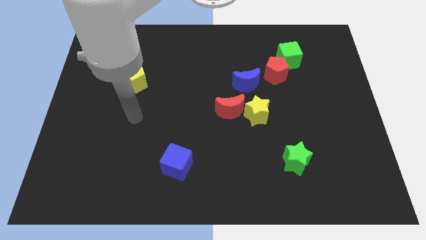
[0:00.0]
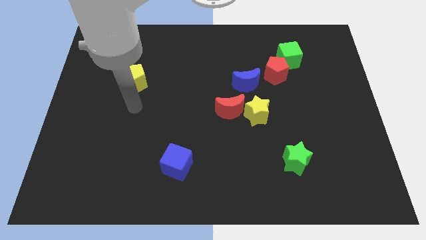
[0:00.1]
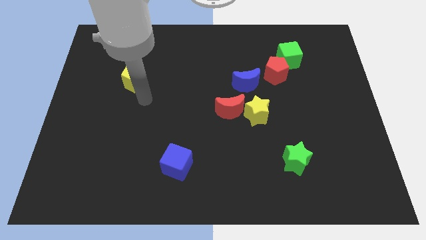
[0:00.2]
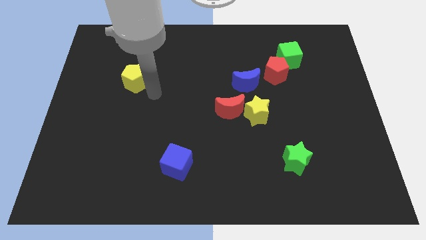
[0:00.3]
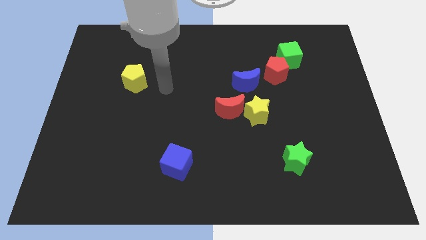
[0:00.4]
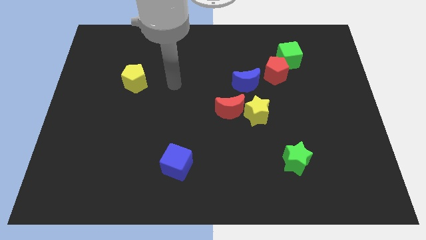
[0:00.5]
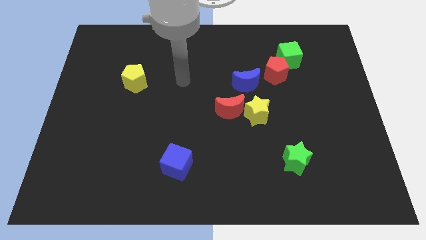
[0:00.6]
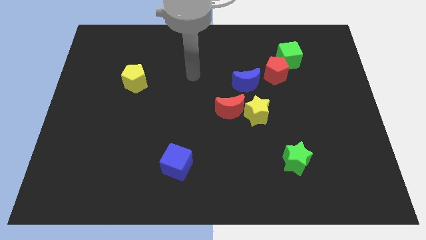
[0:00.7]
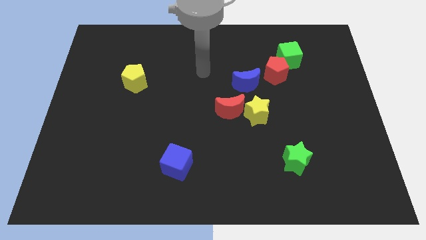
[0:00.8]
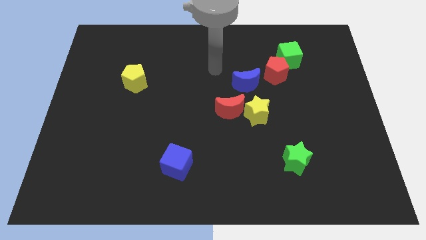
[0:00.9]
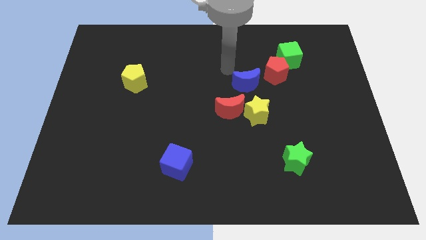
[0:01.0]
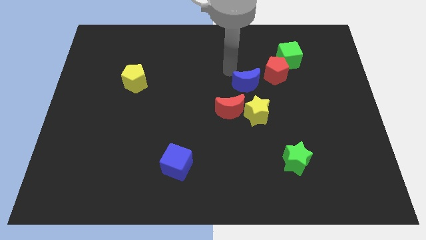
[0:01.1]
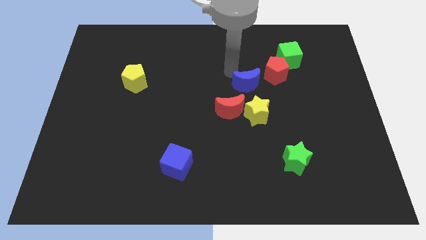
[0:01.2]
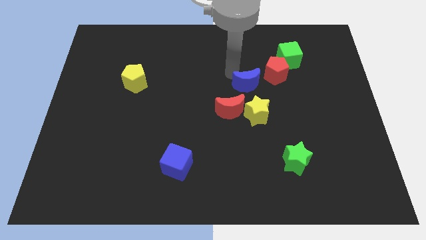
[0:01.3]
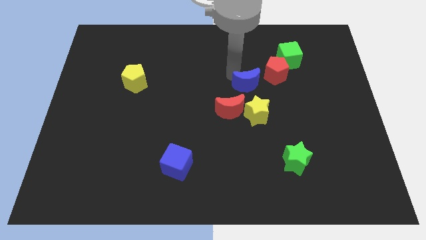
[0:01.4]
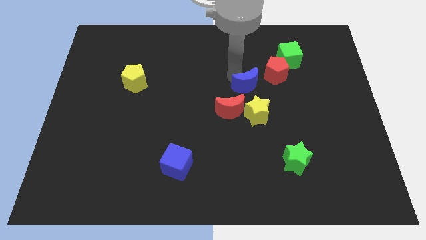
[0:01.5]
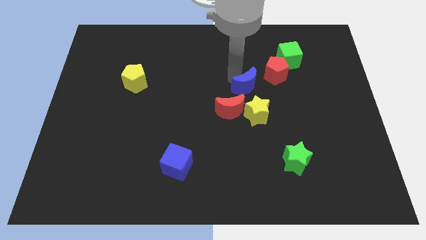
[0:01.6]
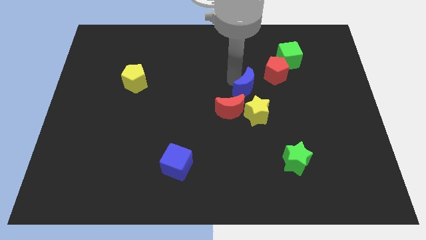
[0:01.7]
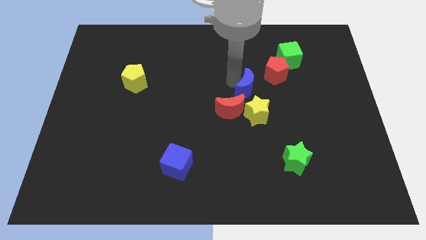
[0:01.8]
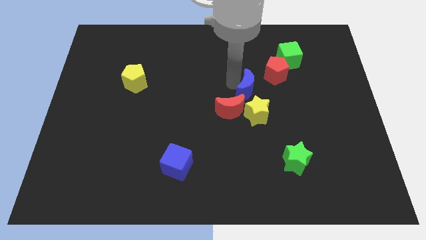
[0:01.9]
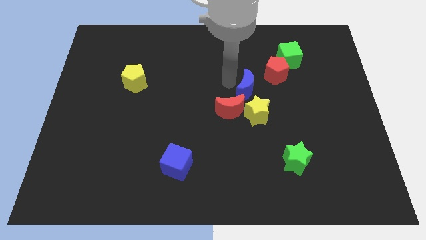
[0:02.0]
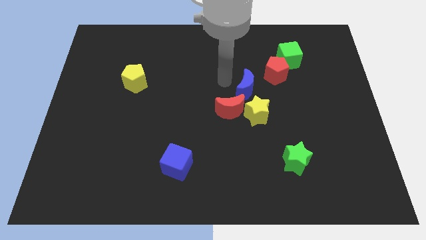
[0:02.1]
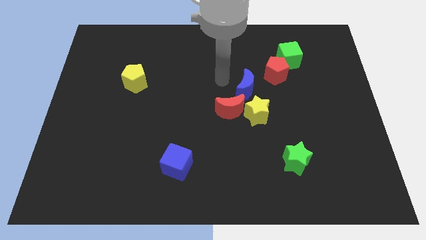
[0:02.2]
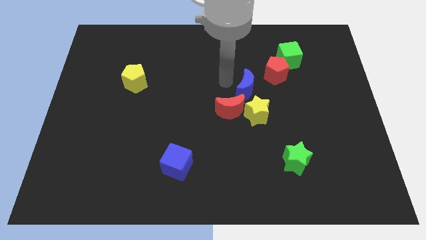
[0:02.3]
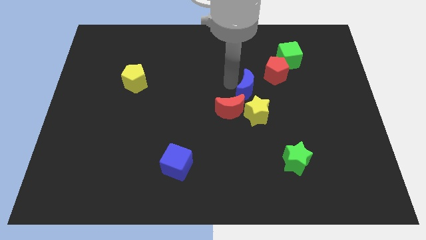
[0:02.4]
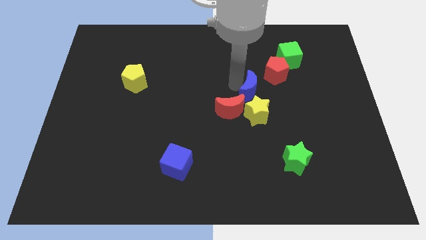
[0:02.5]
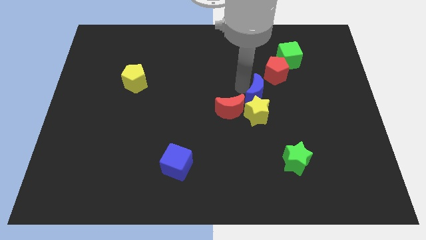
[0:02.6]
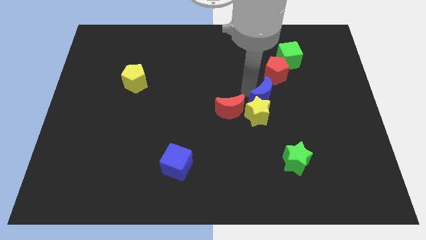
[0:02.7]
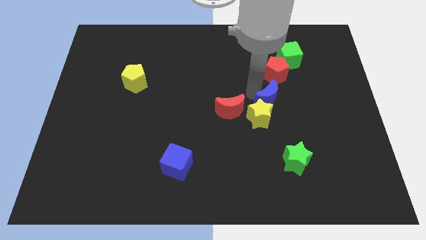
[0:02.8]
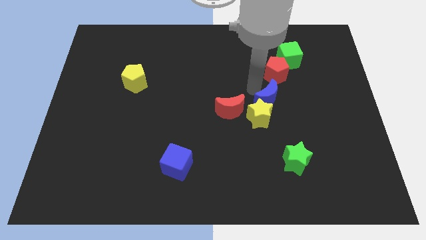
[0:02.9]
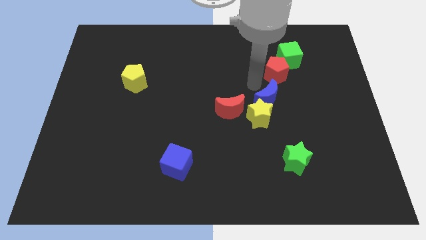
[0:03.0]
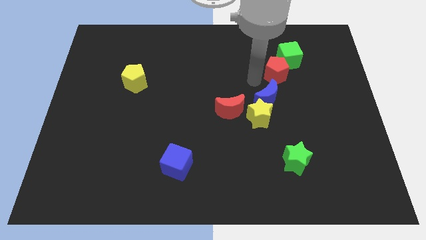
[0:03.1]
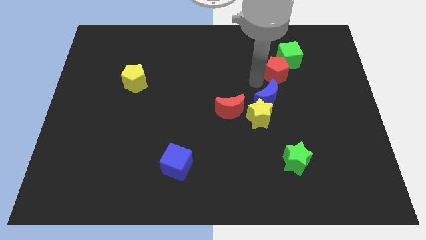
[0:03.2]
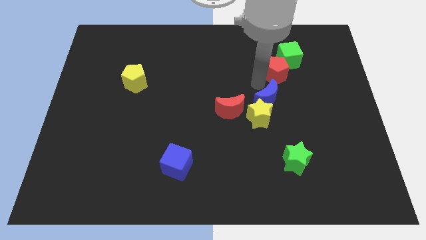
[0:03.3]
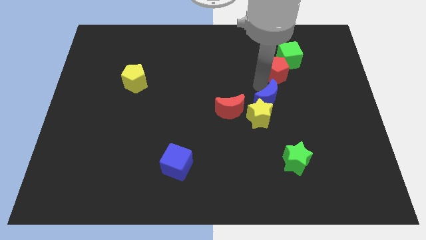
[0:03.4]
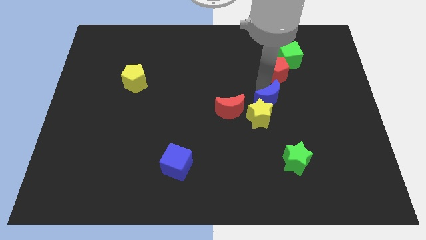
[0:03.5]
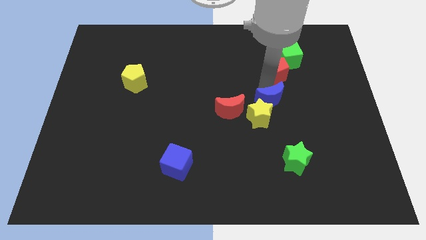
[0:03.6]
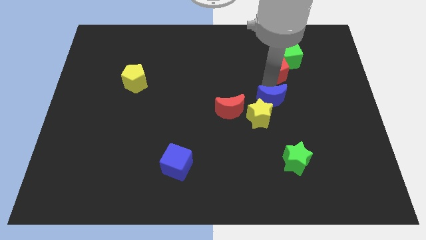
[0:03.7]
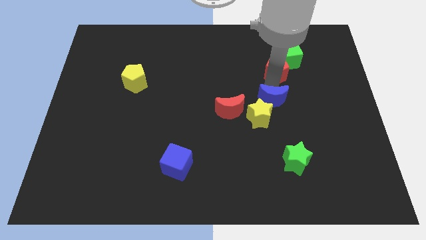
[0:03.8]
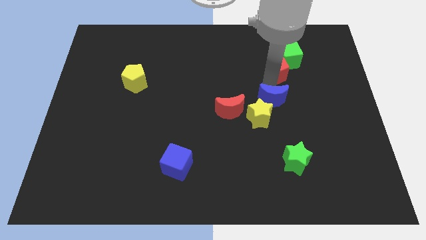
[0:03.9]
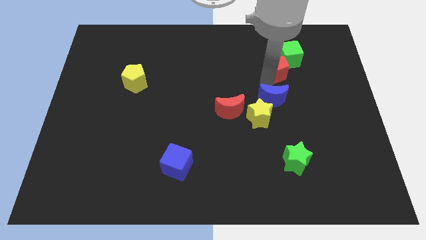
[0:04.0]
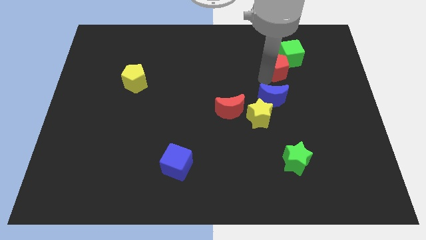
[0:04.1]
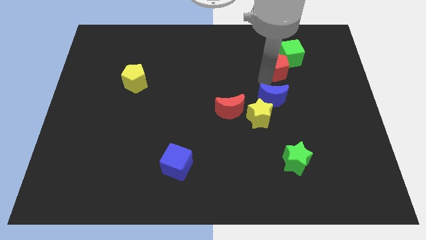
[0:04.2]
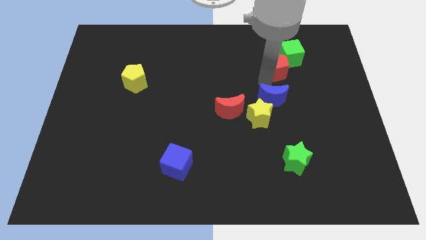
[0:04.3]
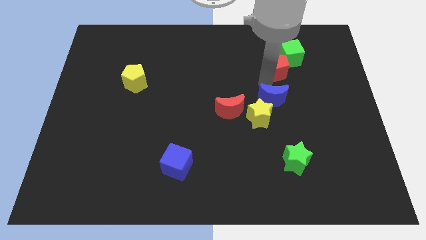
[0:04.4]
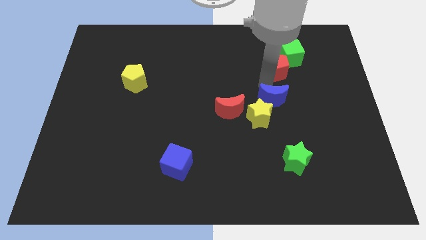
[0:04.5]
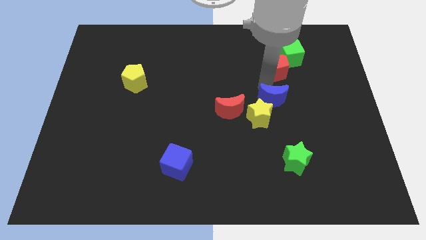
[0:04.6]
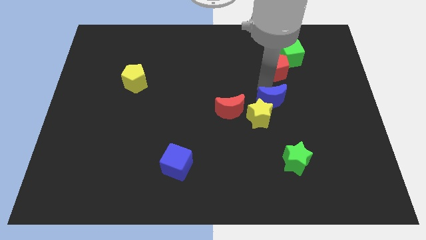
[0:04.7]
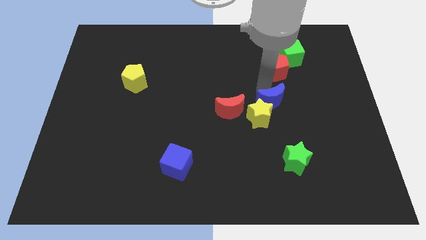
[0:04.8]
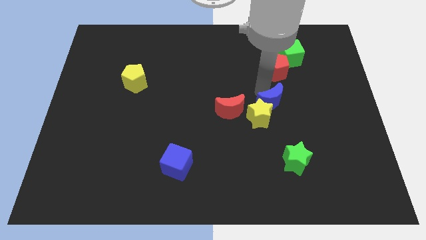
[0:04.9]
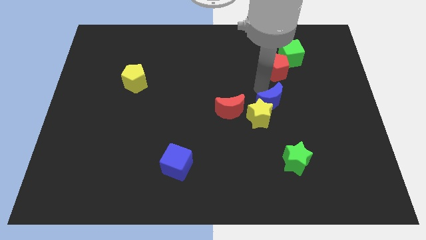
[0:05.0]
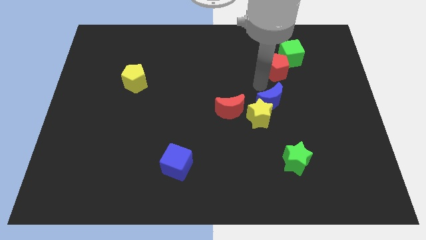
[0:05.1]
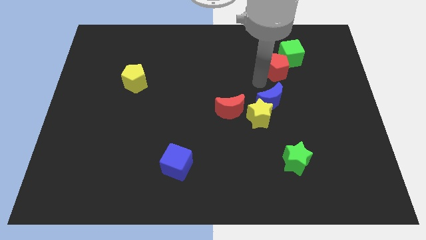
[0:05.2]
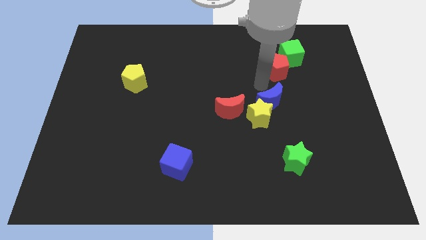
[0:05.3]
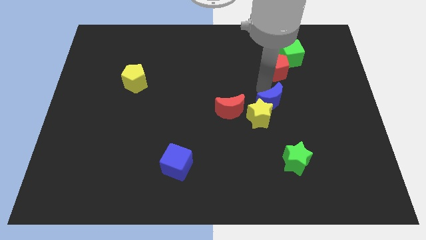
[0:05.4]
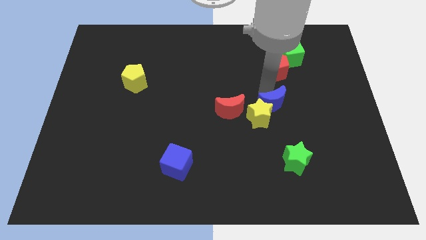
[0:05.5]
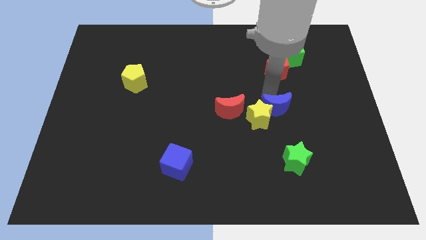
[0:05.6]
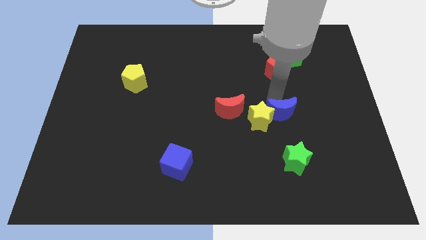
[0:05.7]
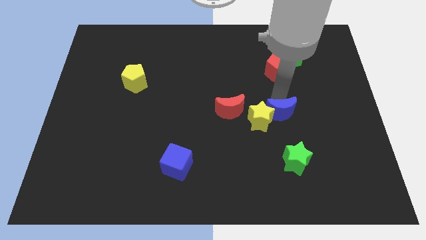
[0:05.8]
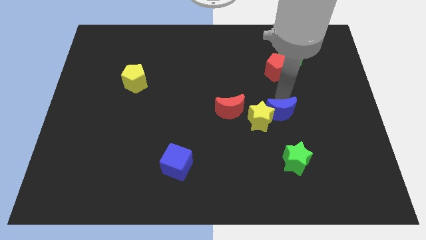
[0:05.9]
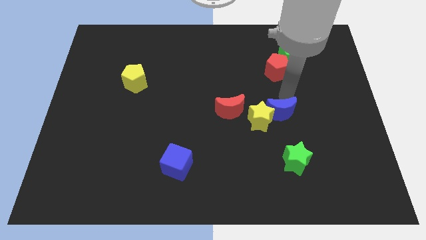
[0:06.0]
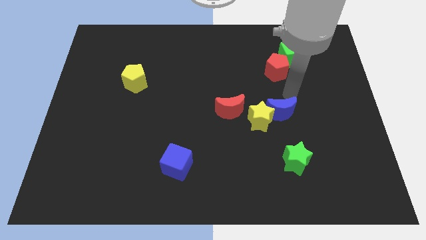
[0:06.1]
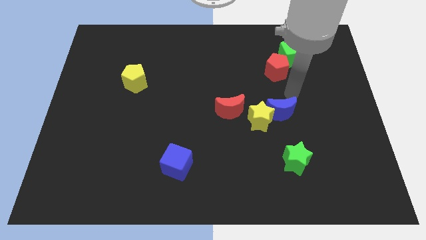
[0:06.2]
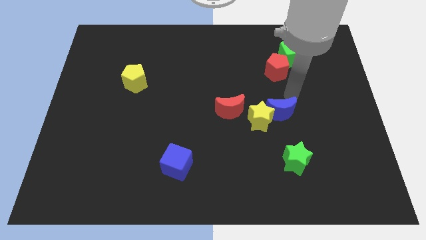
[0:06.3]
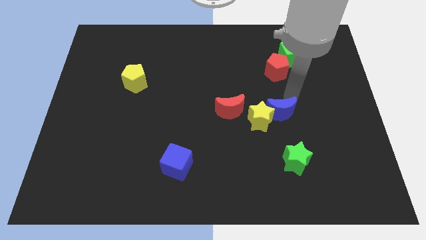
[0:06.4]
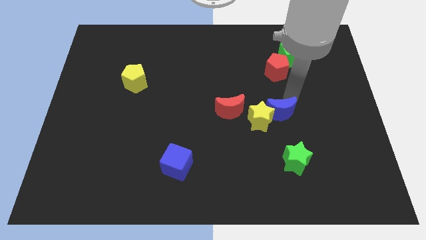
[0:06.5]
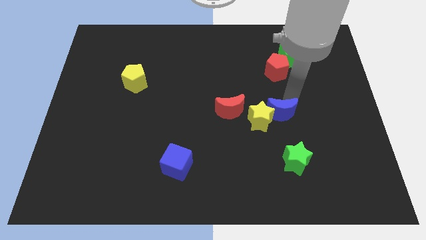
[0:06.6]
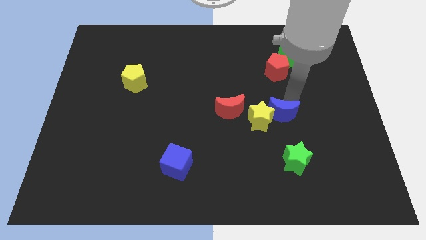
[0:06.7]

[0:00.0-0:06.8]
slightly move the blue moon down

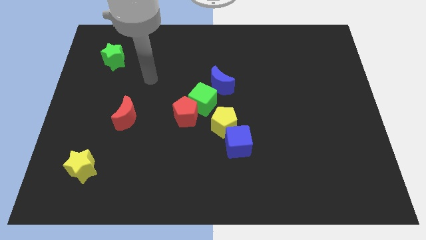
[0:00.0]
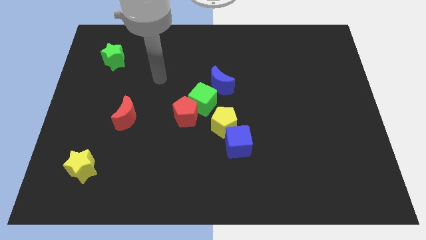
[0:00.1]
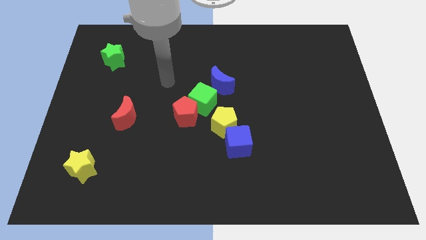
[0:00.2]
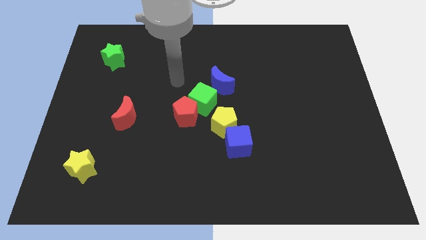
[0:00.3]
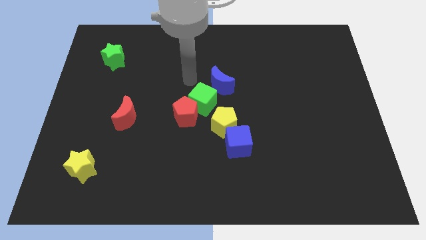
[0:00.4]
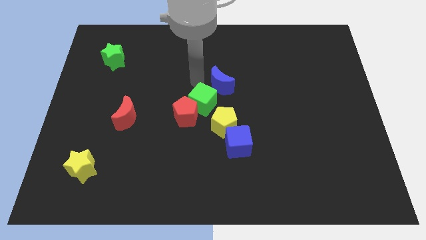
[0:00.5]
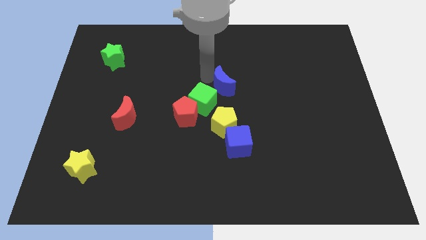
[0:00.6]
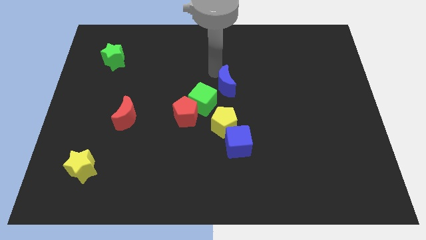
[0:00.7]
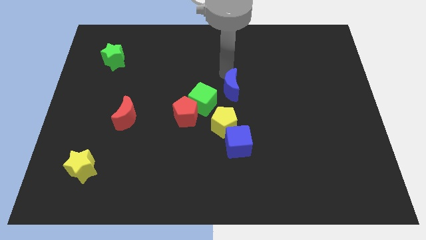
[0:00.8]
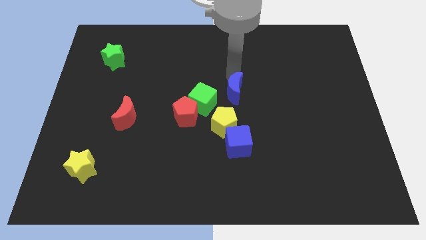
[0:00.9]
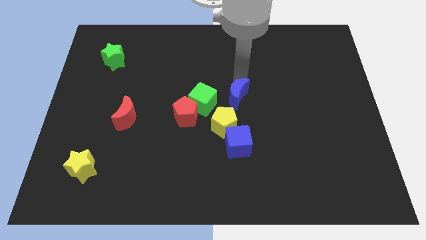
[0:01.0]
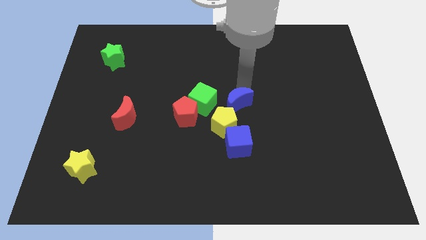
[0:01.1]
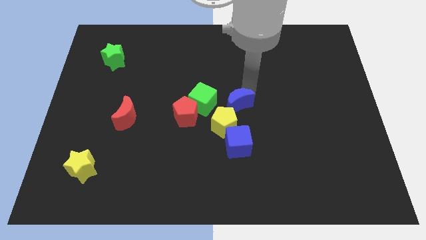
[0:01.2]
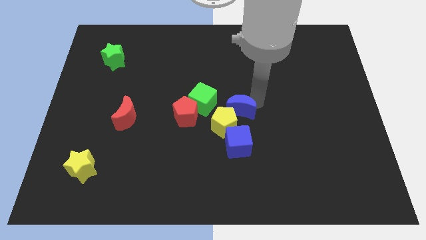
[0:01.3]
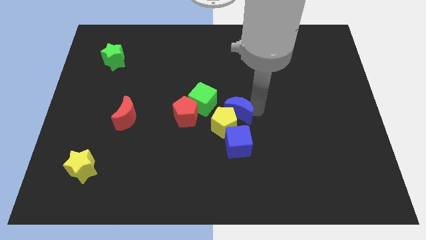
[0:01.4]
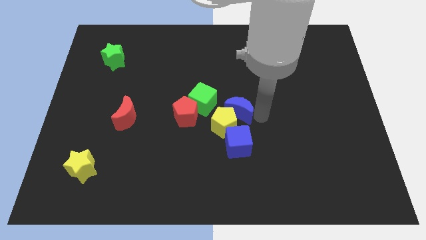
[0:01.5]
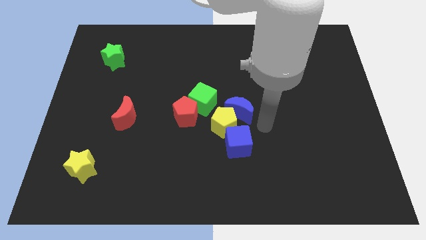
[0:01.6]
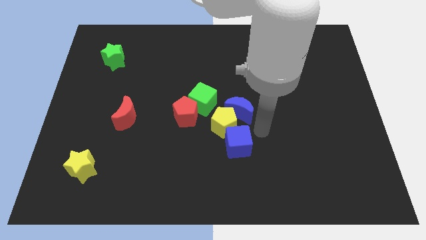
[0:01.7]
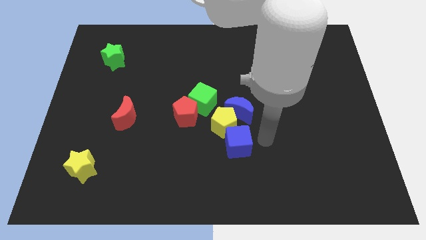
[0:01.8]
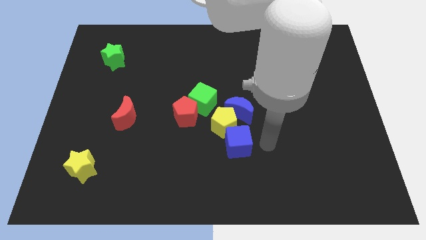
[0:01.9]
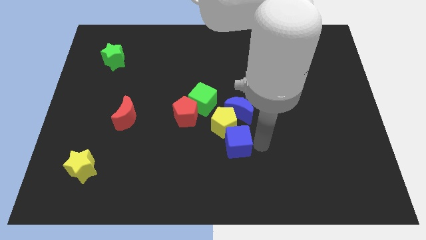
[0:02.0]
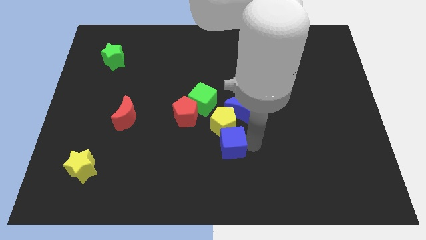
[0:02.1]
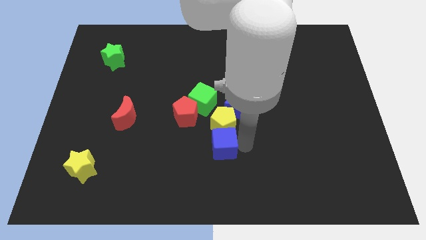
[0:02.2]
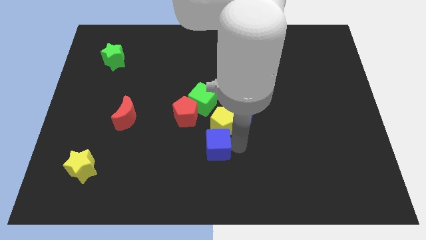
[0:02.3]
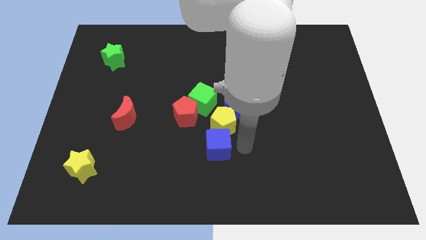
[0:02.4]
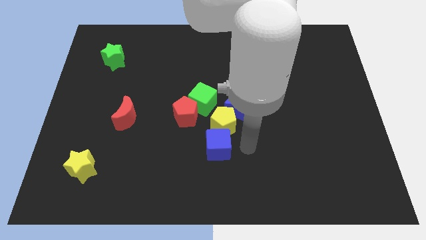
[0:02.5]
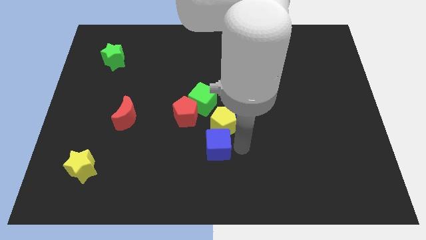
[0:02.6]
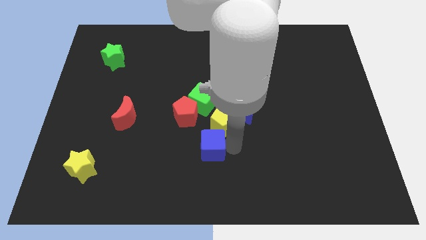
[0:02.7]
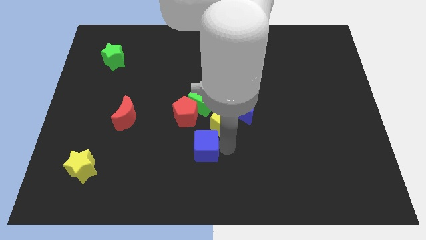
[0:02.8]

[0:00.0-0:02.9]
push the blue cube left somewhat
